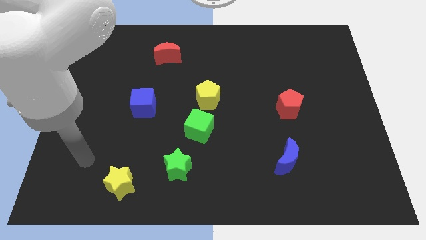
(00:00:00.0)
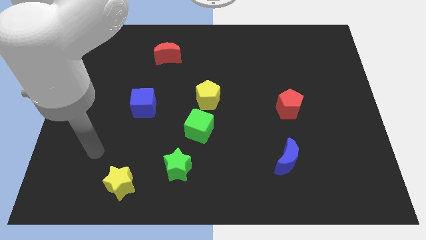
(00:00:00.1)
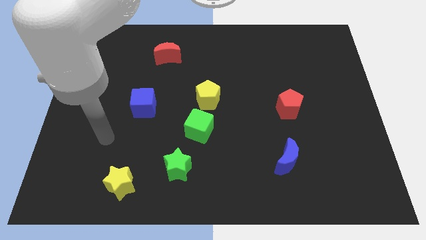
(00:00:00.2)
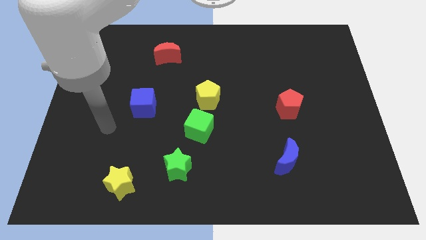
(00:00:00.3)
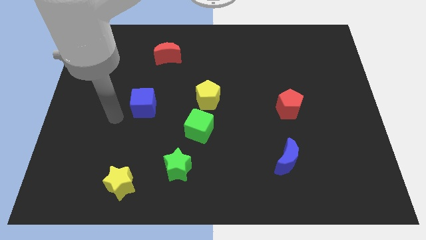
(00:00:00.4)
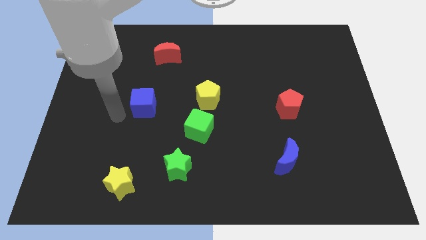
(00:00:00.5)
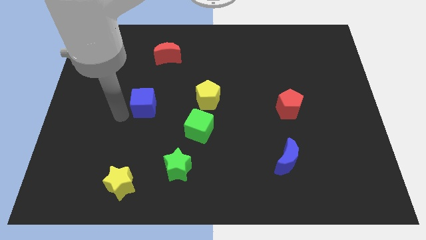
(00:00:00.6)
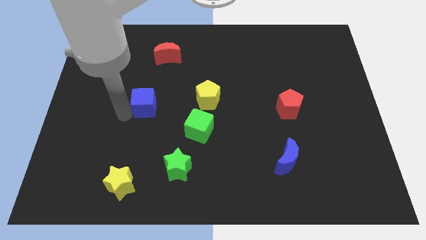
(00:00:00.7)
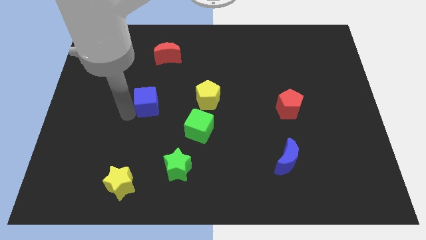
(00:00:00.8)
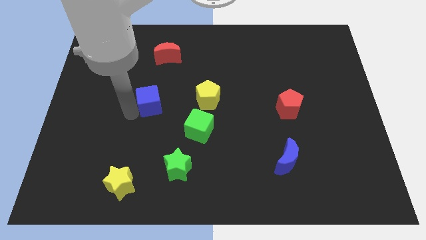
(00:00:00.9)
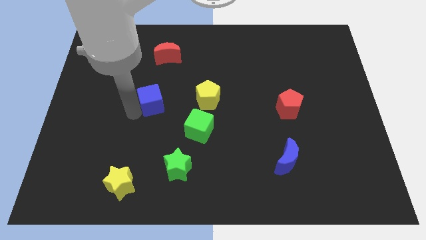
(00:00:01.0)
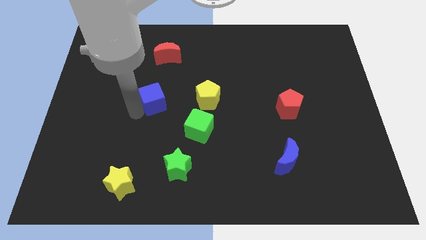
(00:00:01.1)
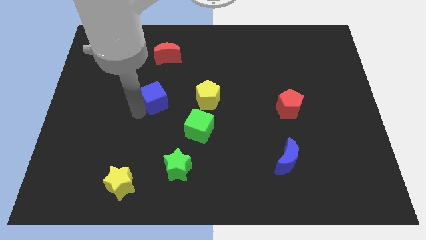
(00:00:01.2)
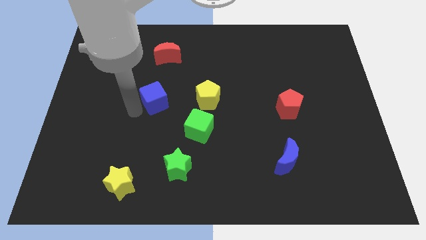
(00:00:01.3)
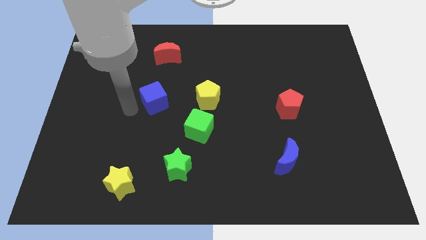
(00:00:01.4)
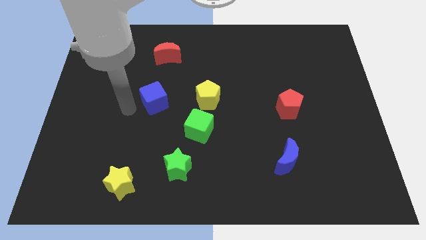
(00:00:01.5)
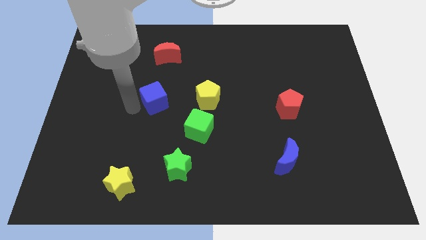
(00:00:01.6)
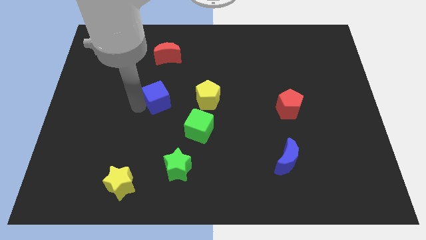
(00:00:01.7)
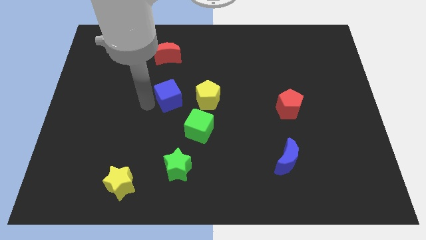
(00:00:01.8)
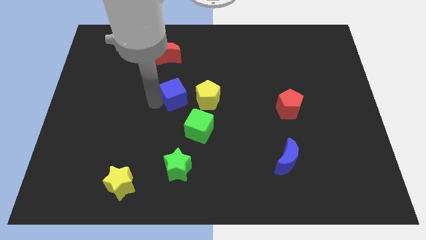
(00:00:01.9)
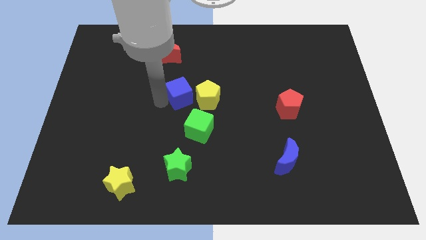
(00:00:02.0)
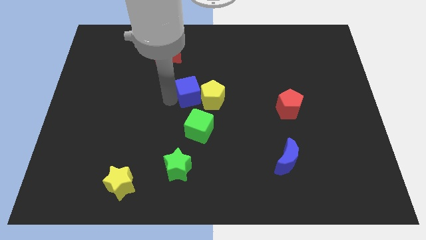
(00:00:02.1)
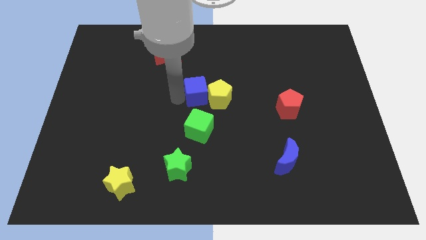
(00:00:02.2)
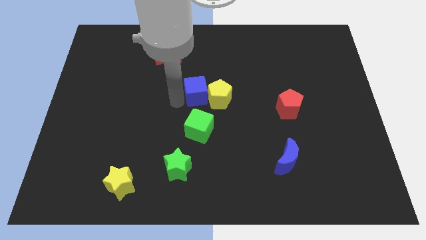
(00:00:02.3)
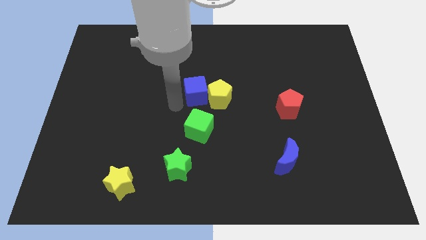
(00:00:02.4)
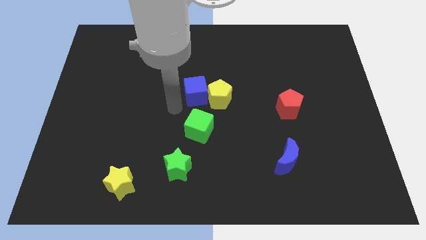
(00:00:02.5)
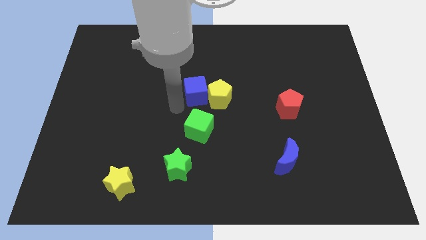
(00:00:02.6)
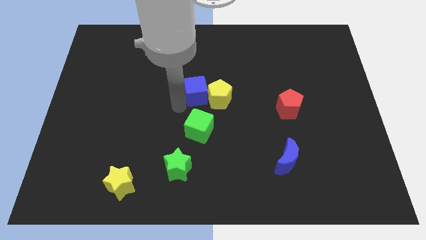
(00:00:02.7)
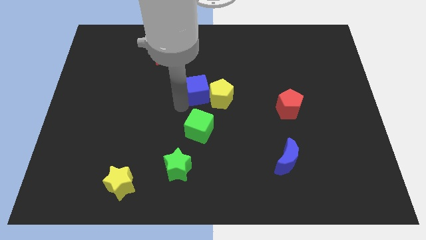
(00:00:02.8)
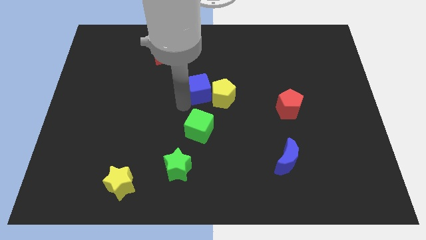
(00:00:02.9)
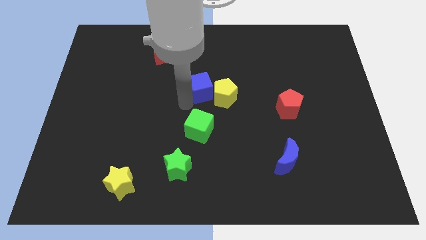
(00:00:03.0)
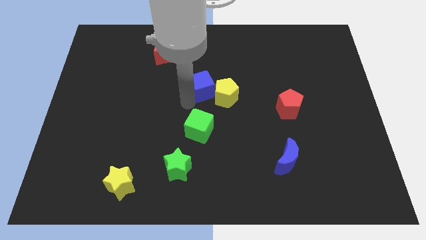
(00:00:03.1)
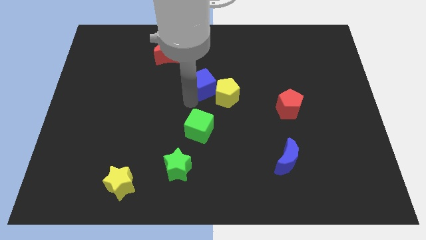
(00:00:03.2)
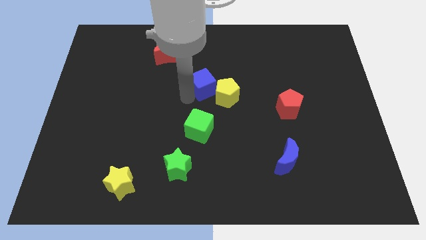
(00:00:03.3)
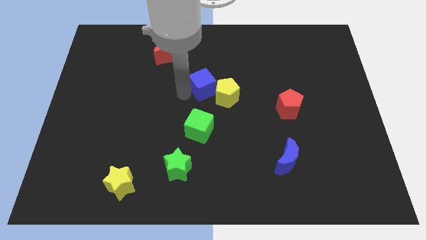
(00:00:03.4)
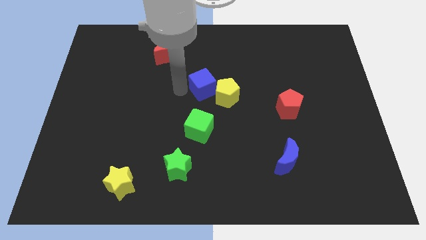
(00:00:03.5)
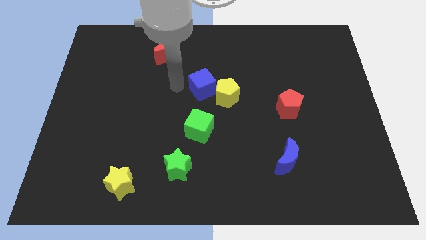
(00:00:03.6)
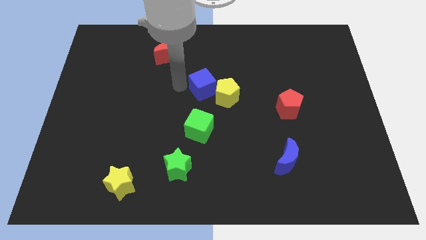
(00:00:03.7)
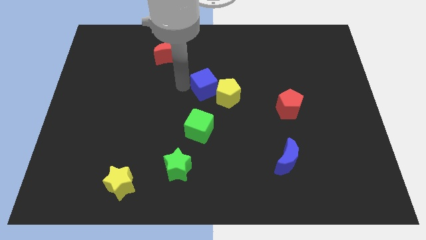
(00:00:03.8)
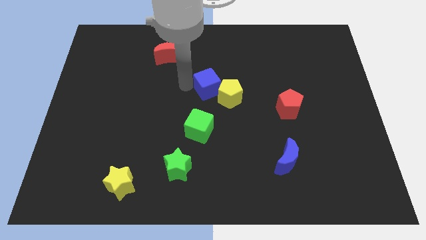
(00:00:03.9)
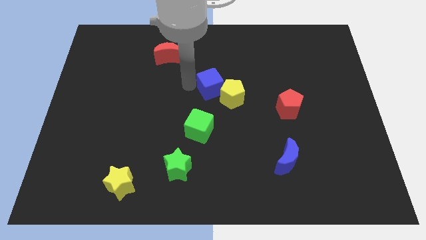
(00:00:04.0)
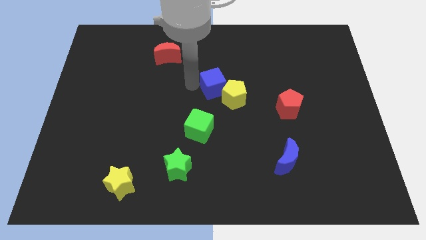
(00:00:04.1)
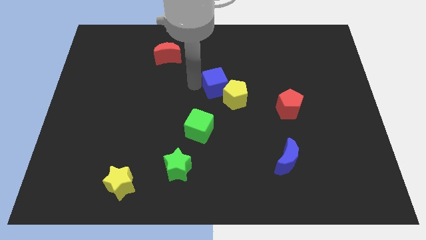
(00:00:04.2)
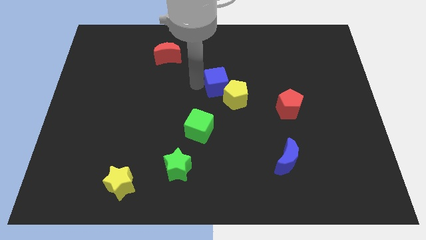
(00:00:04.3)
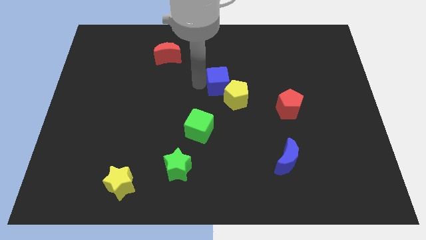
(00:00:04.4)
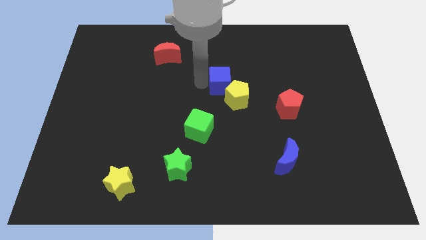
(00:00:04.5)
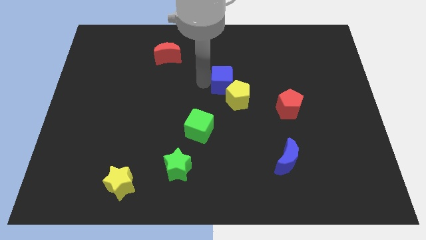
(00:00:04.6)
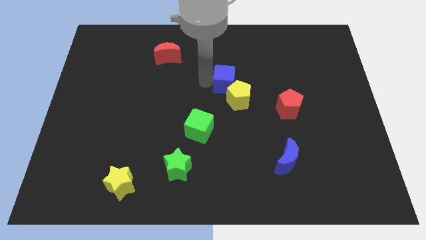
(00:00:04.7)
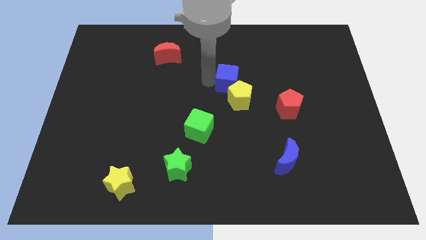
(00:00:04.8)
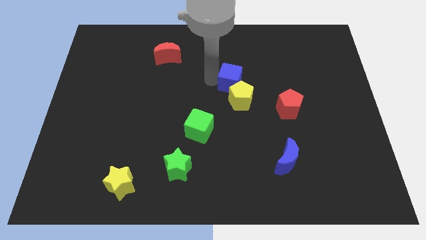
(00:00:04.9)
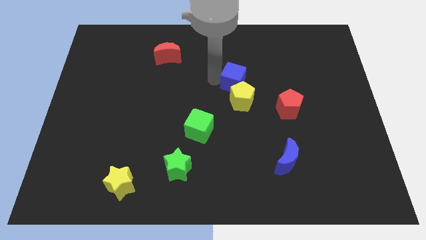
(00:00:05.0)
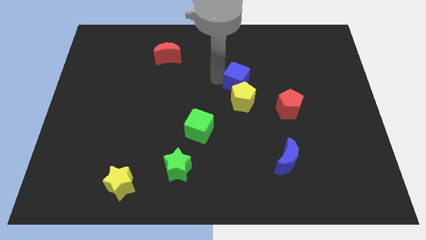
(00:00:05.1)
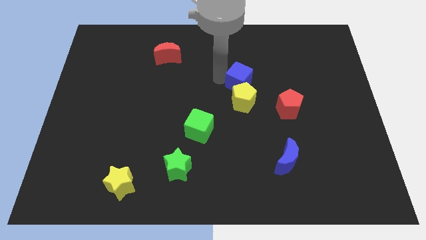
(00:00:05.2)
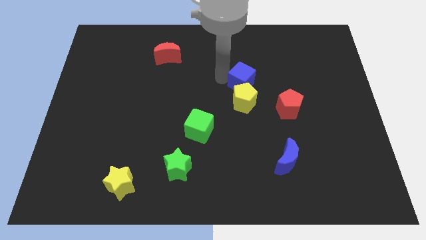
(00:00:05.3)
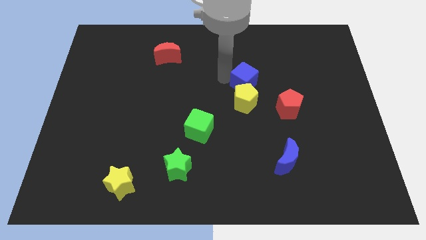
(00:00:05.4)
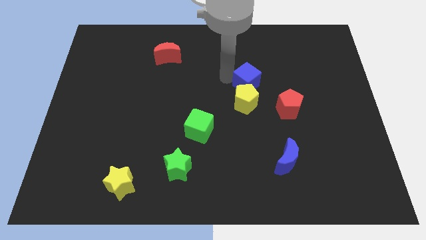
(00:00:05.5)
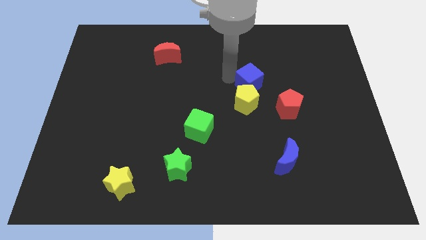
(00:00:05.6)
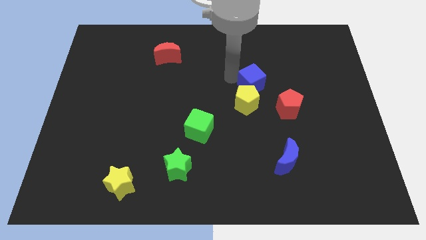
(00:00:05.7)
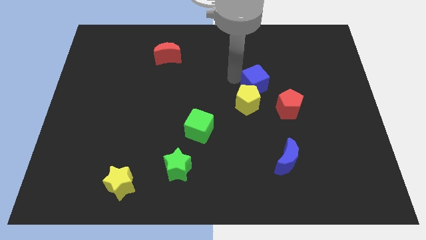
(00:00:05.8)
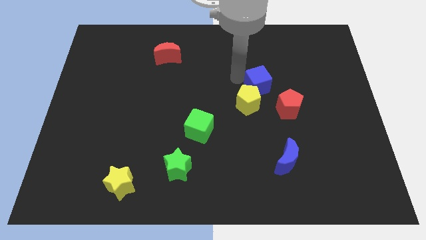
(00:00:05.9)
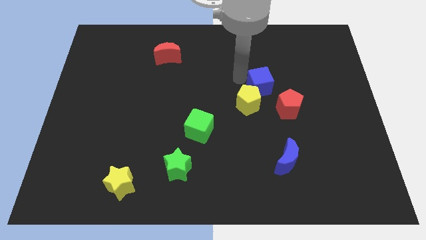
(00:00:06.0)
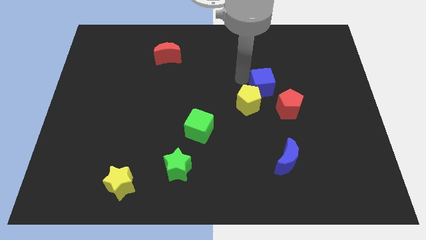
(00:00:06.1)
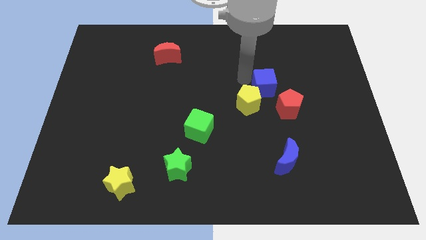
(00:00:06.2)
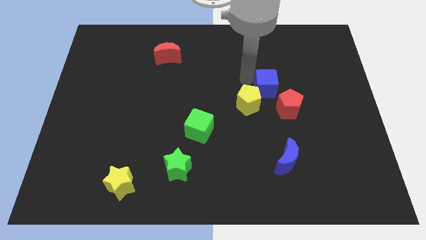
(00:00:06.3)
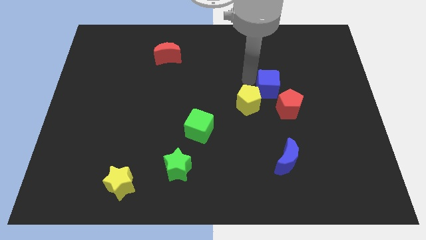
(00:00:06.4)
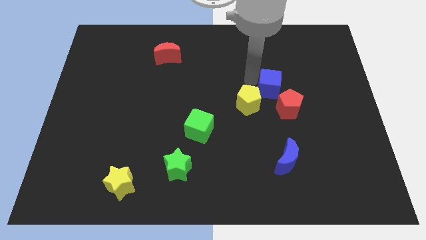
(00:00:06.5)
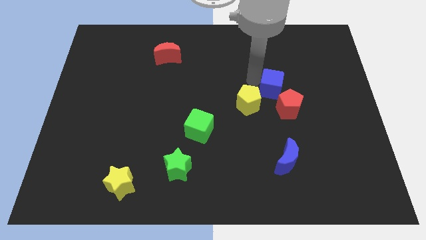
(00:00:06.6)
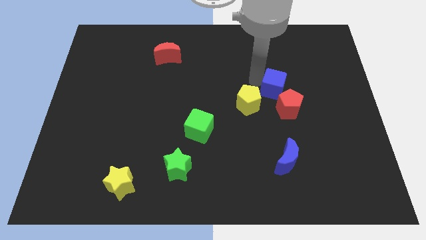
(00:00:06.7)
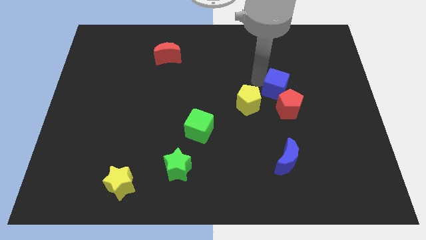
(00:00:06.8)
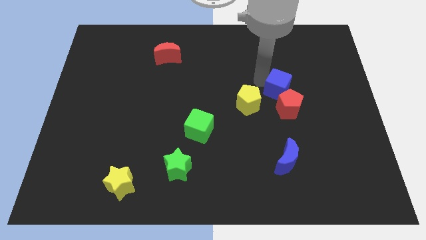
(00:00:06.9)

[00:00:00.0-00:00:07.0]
slide the blue cube close to the red pentagon

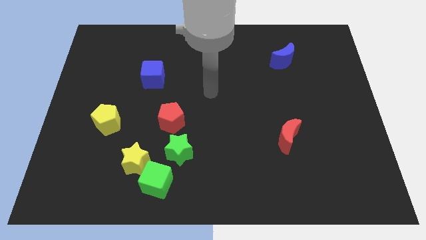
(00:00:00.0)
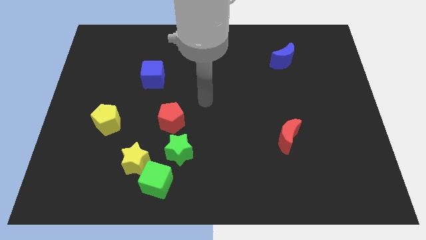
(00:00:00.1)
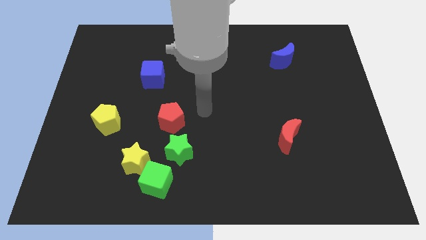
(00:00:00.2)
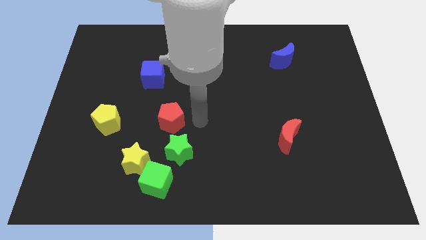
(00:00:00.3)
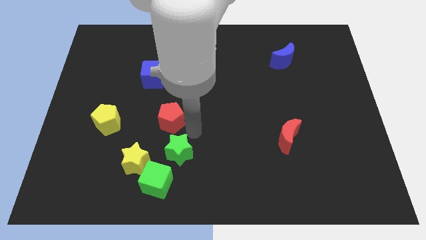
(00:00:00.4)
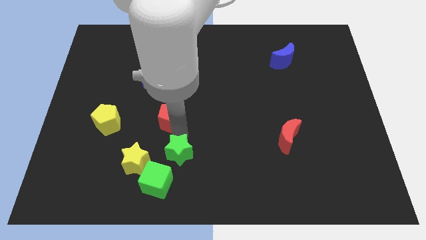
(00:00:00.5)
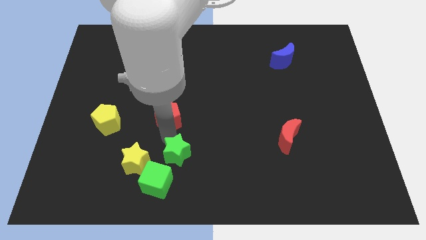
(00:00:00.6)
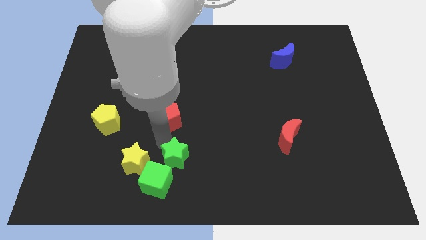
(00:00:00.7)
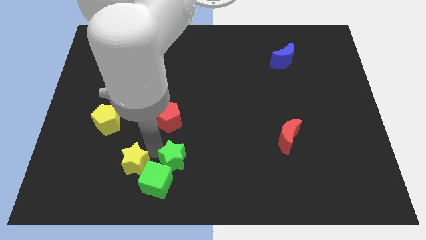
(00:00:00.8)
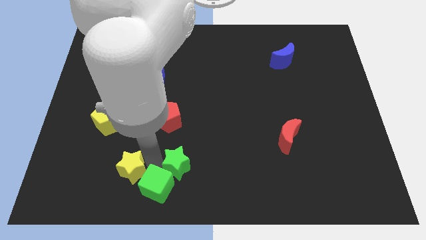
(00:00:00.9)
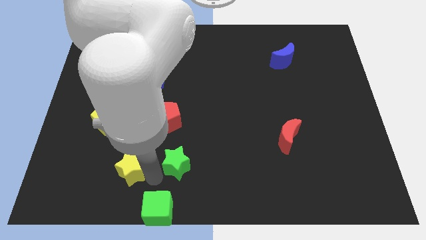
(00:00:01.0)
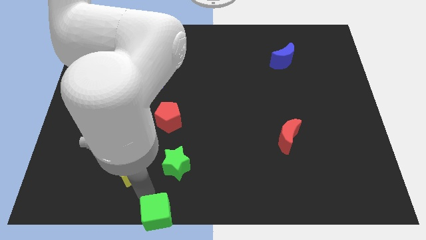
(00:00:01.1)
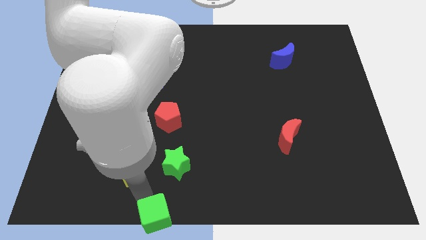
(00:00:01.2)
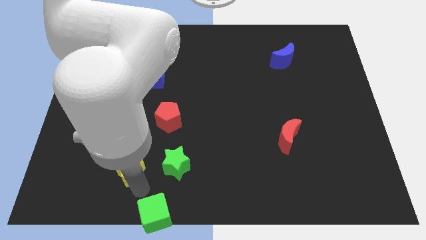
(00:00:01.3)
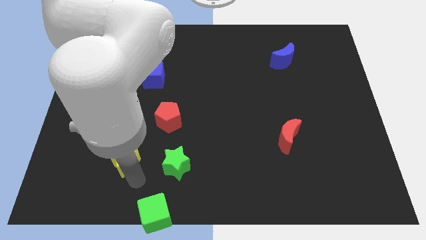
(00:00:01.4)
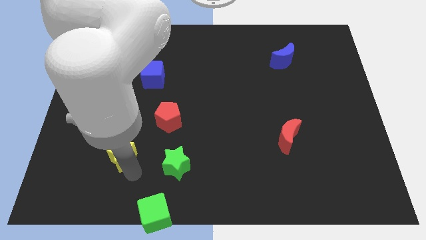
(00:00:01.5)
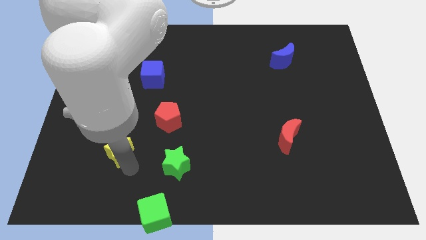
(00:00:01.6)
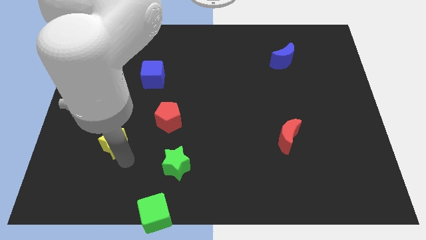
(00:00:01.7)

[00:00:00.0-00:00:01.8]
move the yellow star close to the yellow pentagon
